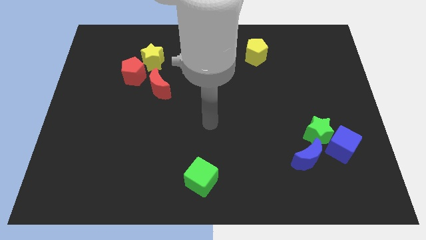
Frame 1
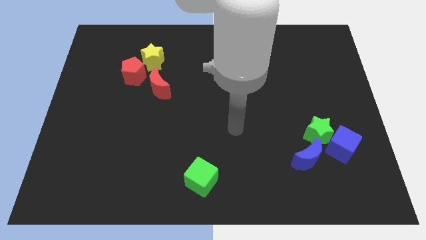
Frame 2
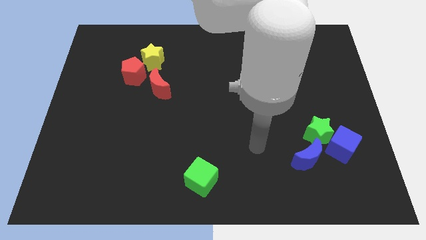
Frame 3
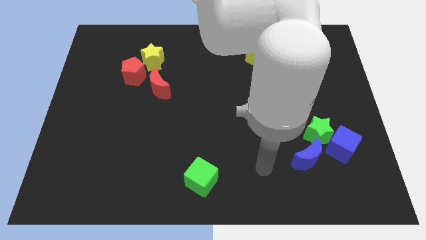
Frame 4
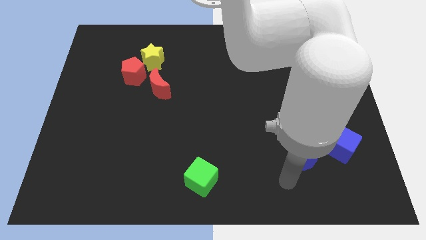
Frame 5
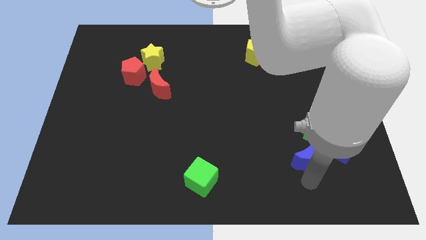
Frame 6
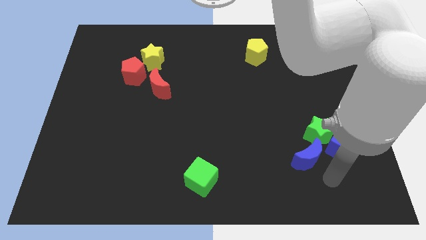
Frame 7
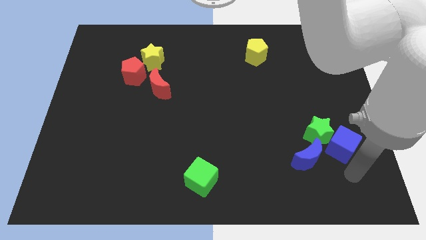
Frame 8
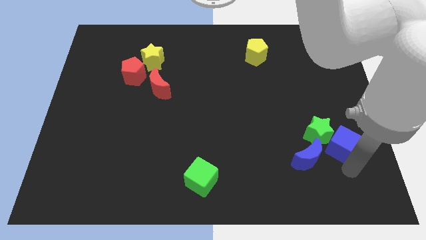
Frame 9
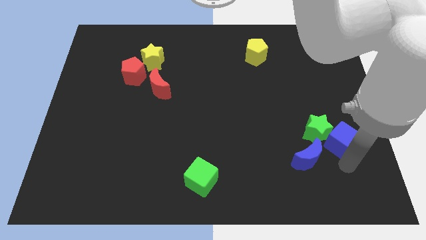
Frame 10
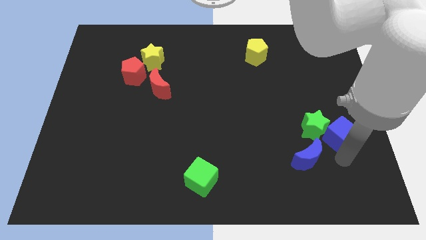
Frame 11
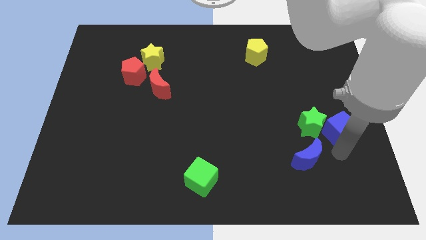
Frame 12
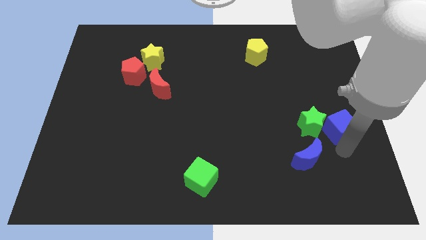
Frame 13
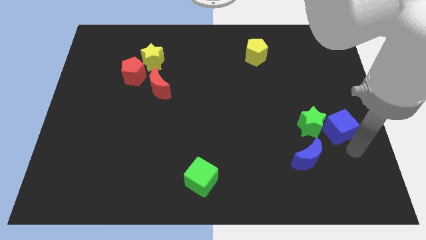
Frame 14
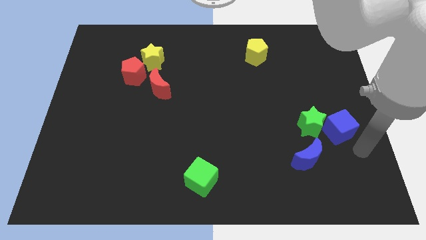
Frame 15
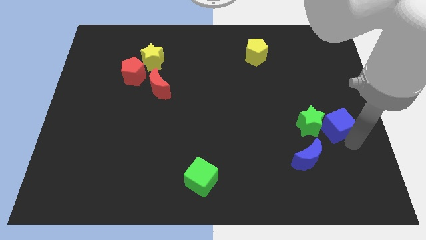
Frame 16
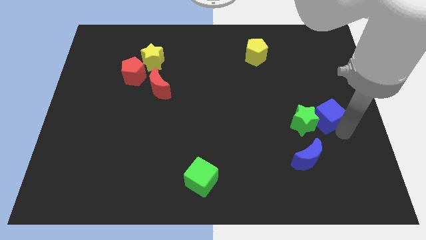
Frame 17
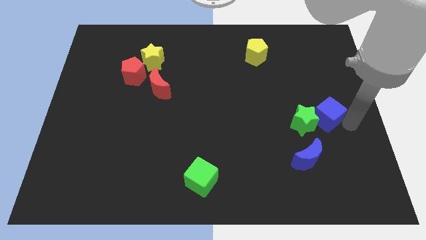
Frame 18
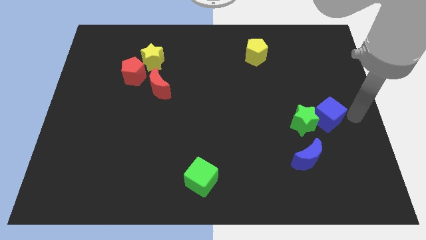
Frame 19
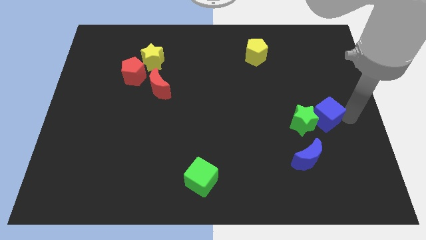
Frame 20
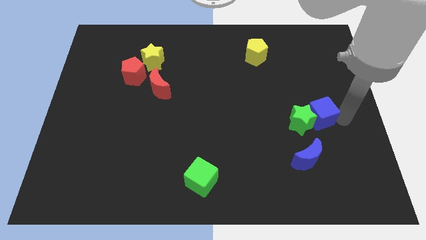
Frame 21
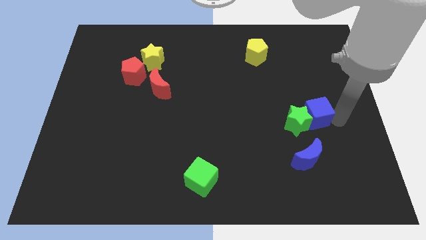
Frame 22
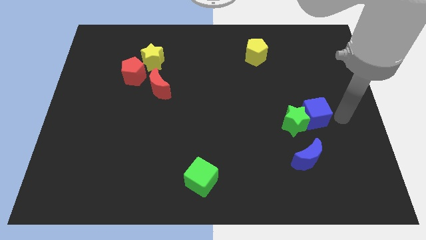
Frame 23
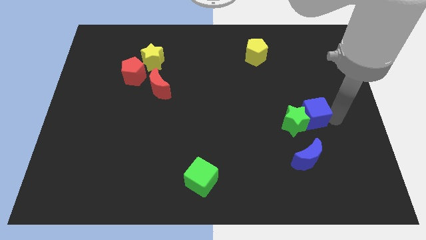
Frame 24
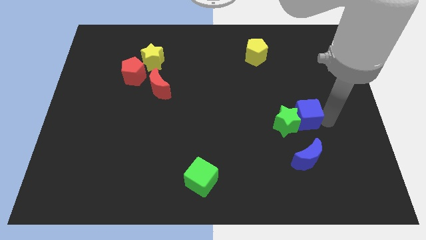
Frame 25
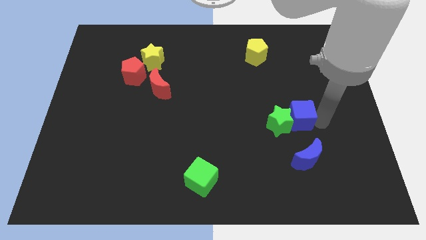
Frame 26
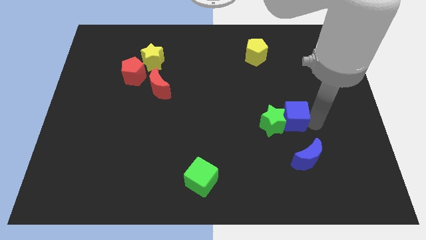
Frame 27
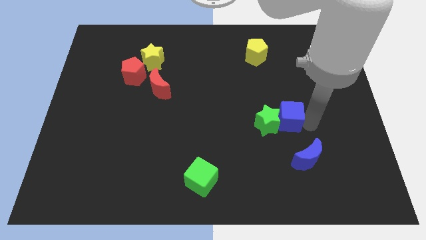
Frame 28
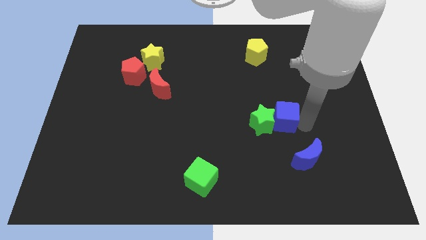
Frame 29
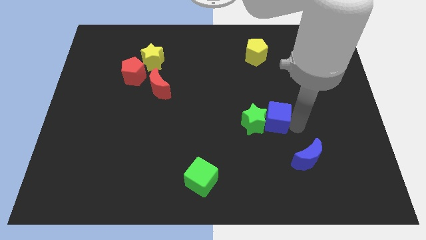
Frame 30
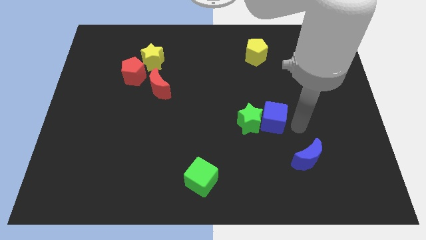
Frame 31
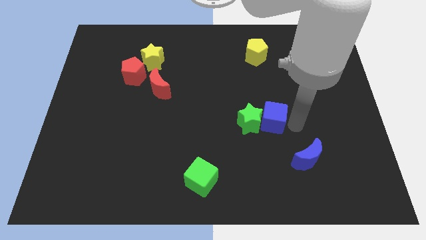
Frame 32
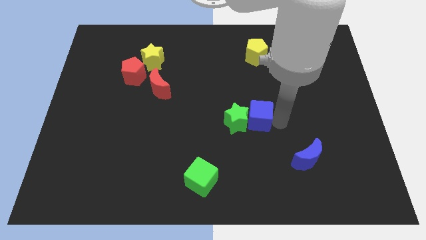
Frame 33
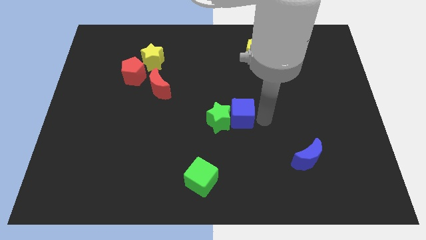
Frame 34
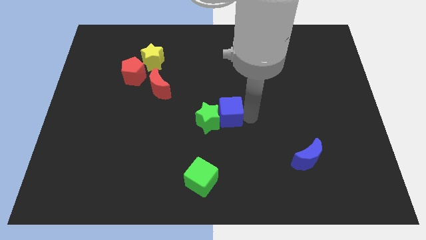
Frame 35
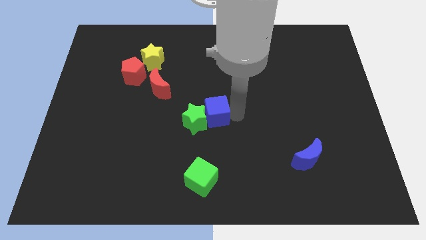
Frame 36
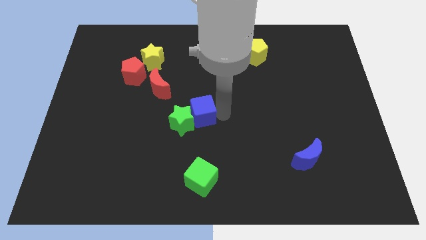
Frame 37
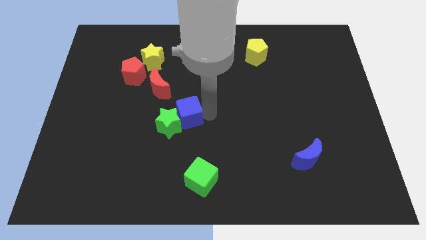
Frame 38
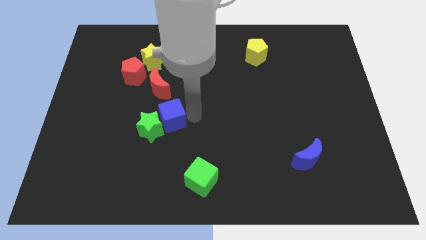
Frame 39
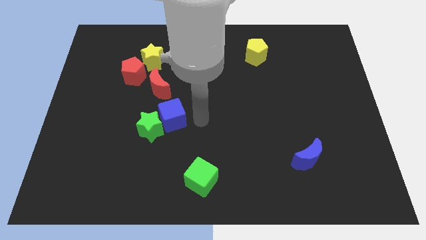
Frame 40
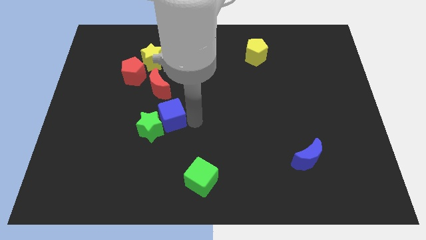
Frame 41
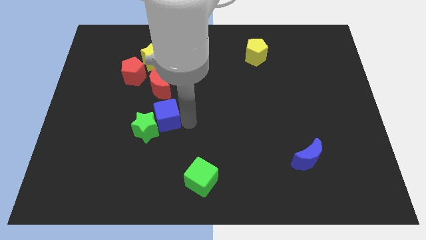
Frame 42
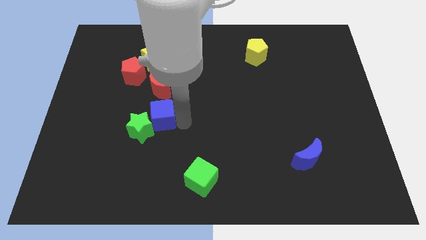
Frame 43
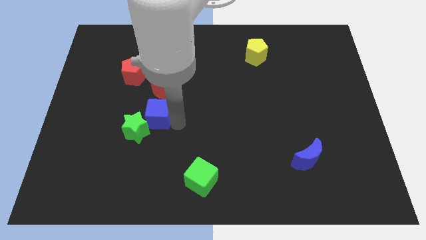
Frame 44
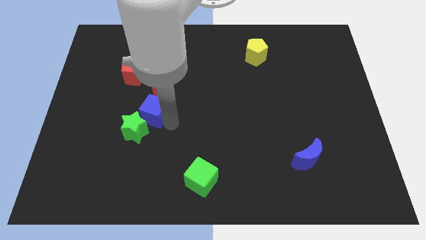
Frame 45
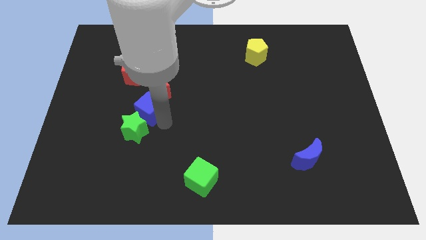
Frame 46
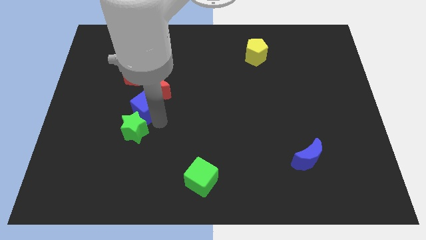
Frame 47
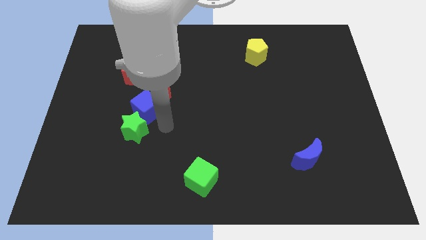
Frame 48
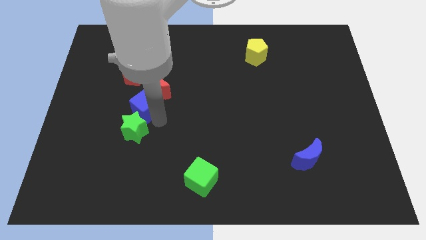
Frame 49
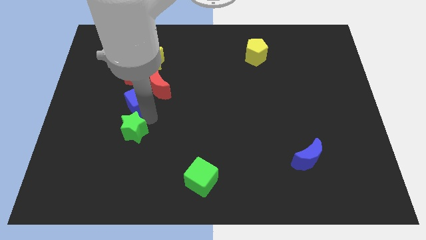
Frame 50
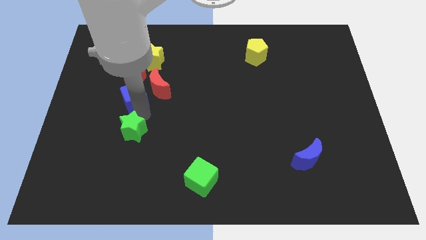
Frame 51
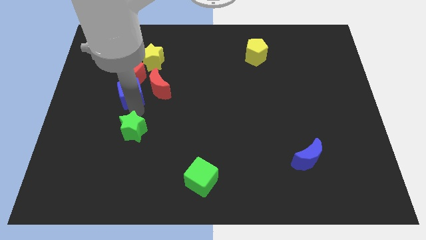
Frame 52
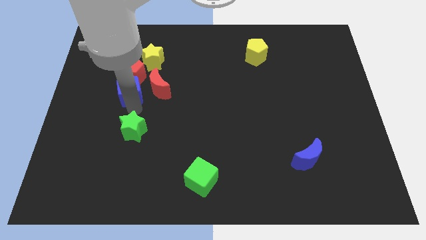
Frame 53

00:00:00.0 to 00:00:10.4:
push the blue cube to the red pentagon

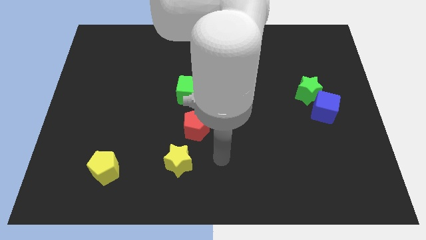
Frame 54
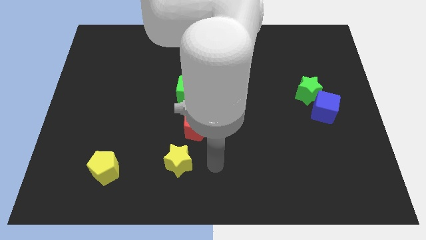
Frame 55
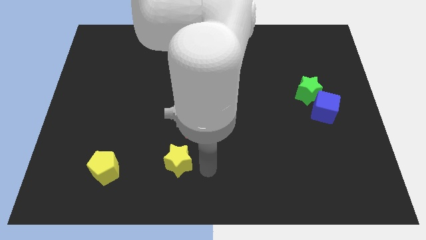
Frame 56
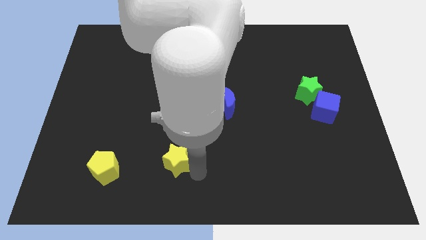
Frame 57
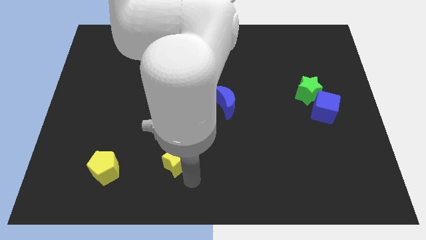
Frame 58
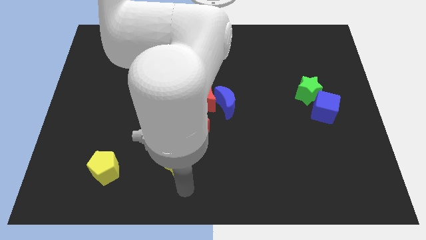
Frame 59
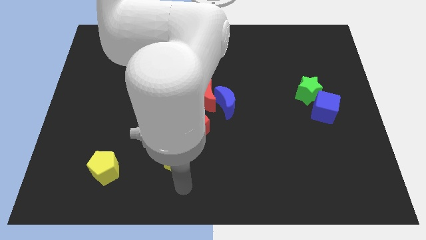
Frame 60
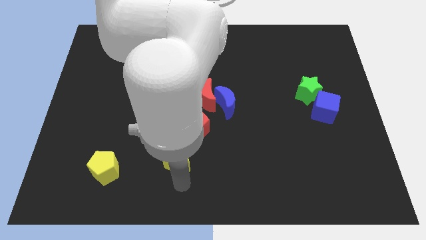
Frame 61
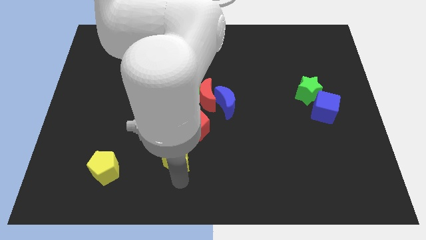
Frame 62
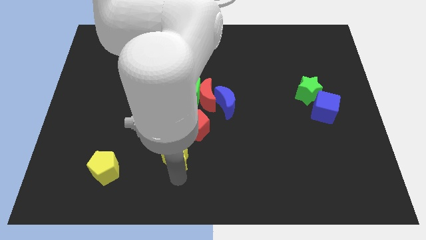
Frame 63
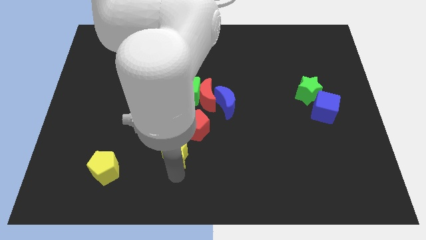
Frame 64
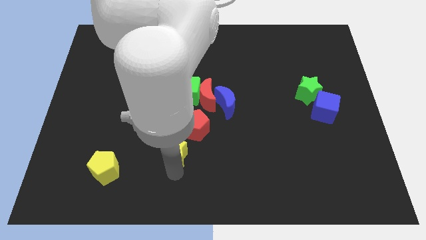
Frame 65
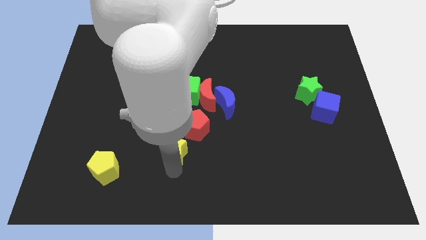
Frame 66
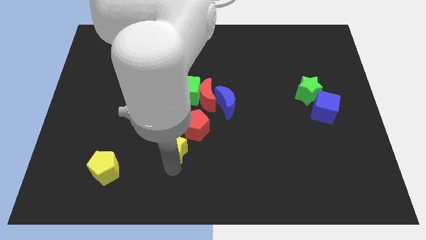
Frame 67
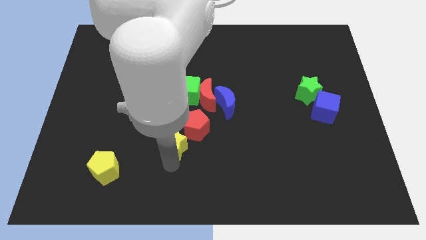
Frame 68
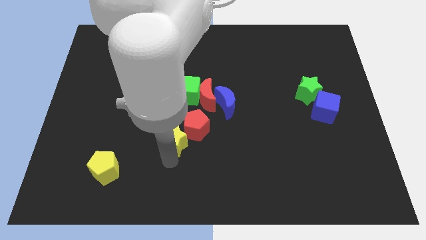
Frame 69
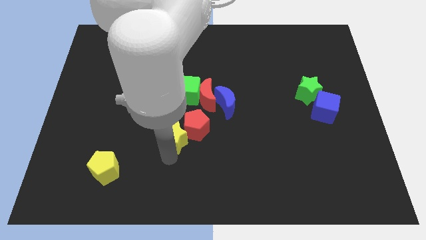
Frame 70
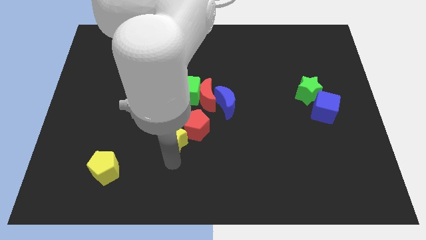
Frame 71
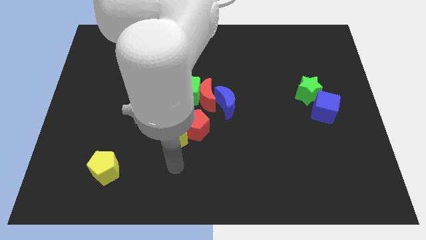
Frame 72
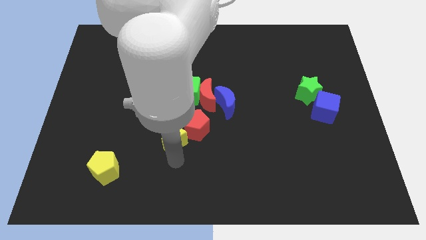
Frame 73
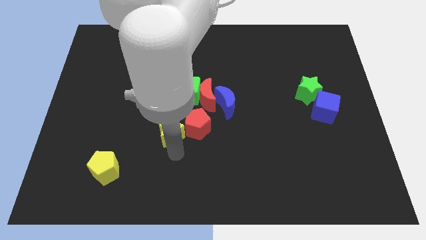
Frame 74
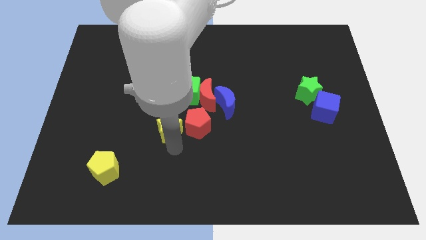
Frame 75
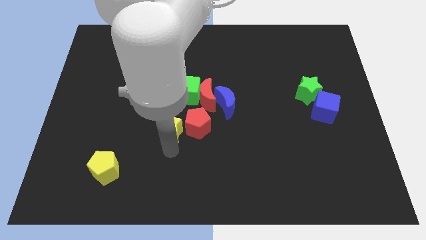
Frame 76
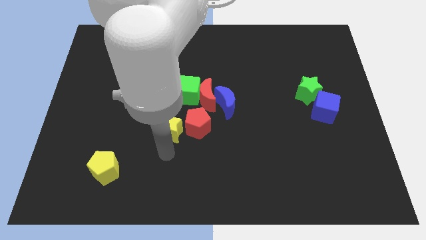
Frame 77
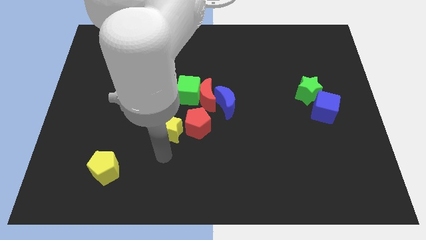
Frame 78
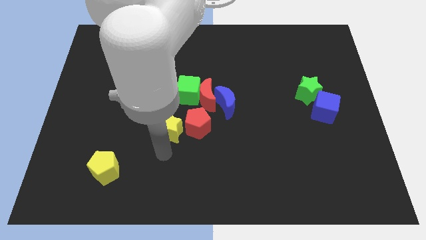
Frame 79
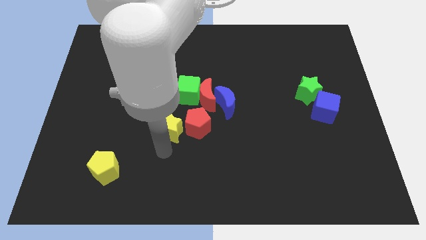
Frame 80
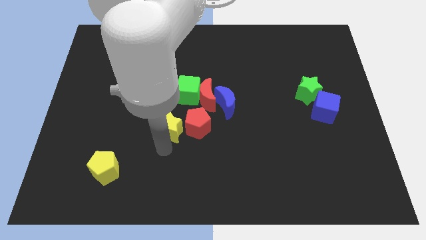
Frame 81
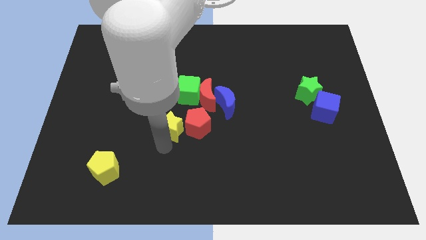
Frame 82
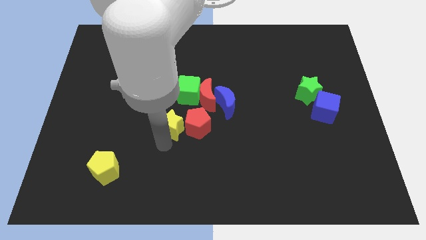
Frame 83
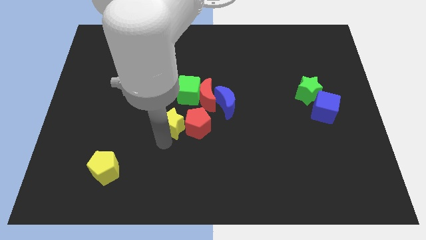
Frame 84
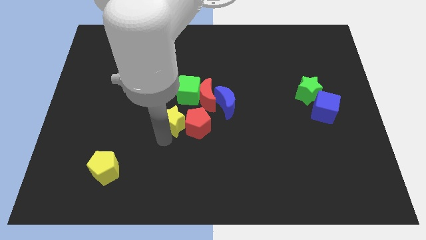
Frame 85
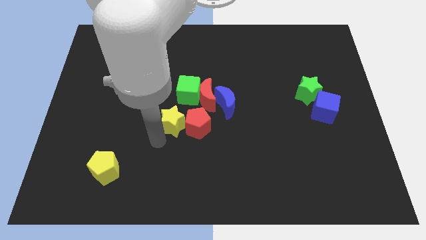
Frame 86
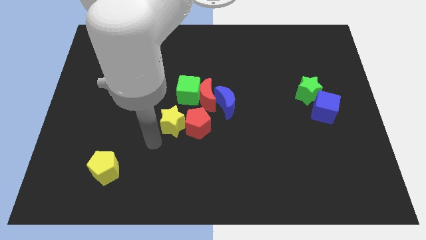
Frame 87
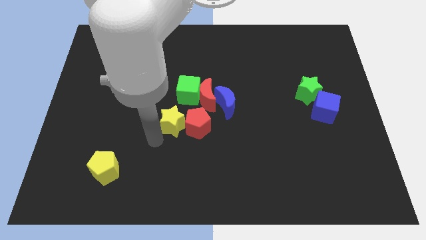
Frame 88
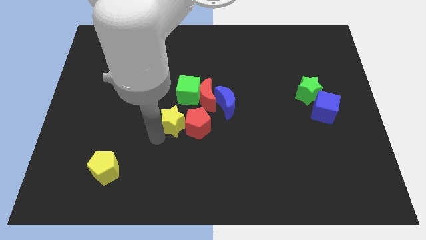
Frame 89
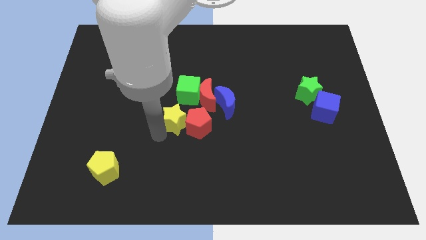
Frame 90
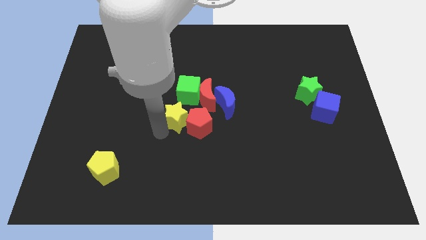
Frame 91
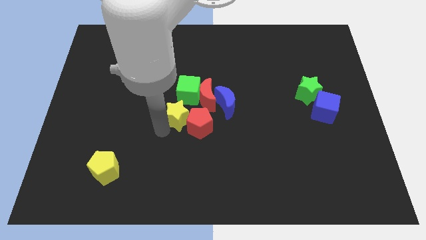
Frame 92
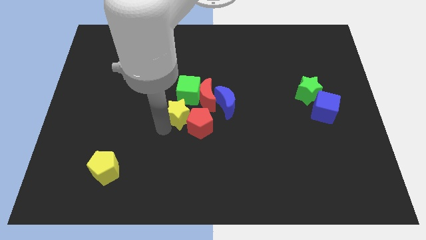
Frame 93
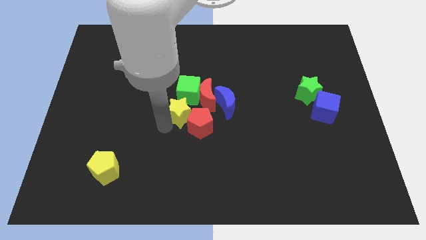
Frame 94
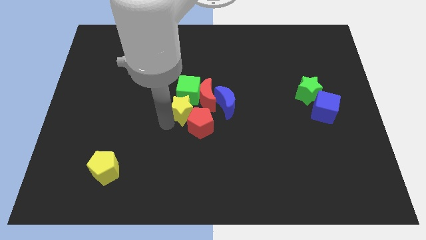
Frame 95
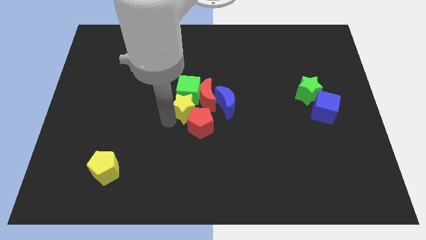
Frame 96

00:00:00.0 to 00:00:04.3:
move the yellow star close to the red moon
